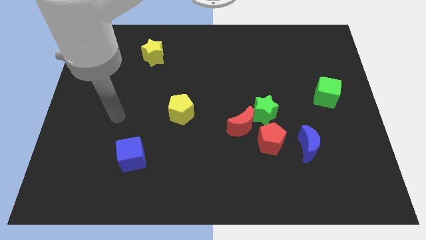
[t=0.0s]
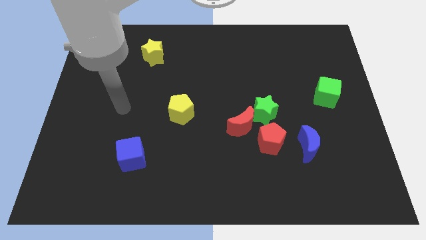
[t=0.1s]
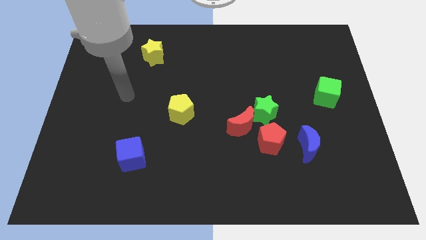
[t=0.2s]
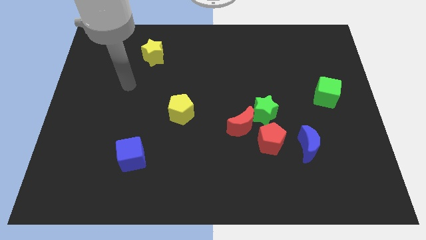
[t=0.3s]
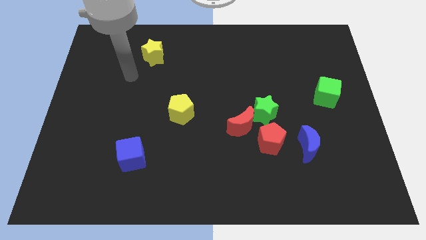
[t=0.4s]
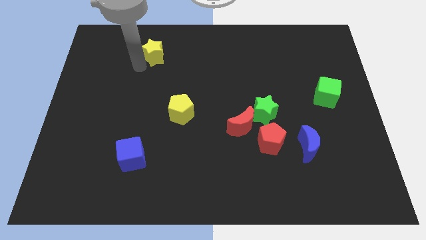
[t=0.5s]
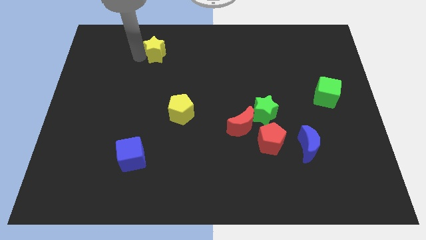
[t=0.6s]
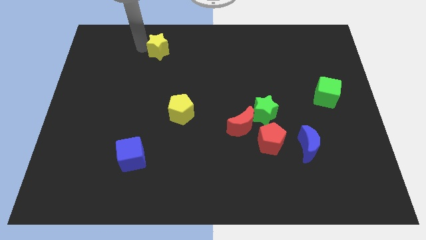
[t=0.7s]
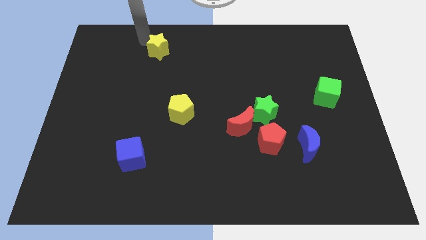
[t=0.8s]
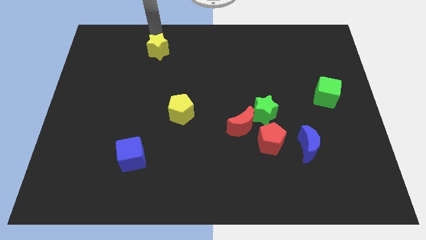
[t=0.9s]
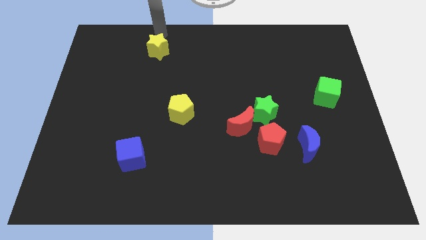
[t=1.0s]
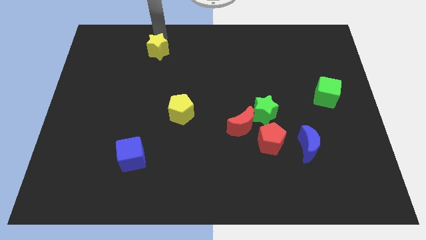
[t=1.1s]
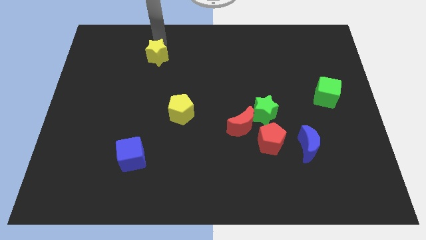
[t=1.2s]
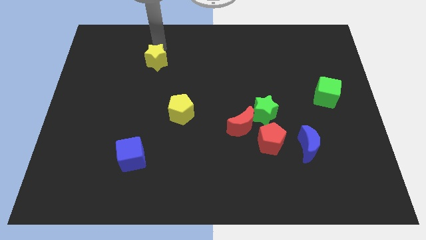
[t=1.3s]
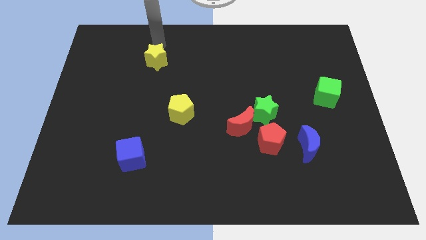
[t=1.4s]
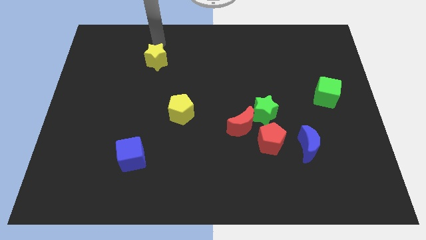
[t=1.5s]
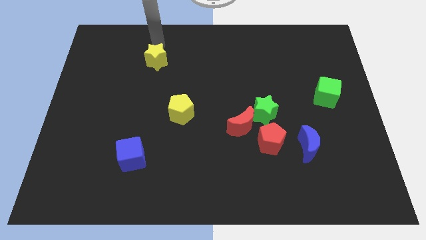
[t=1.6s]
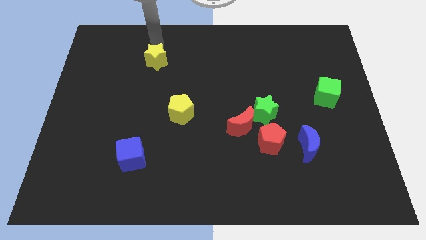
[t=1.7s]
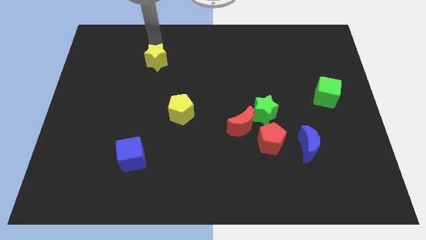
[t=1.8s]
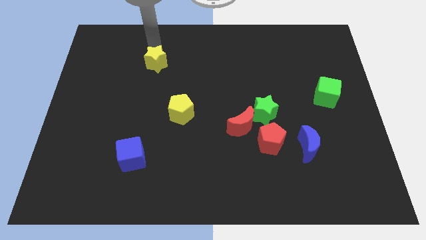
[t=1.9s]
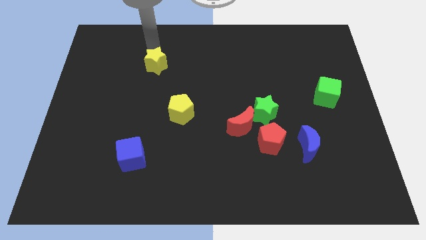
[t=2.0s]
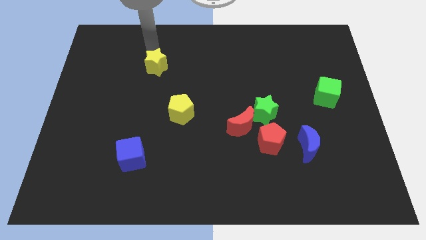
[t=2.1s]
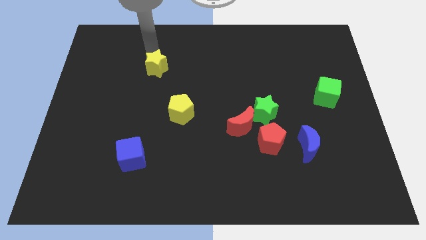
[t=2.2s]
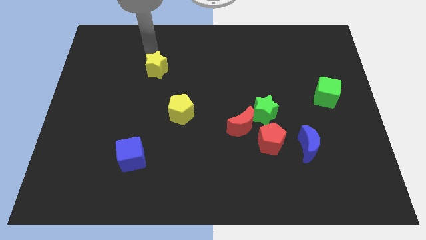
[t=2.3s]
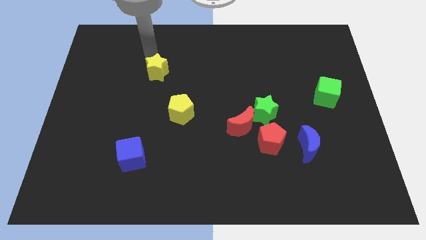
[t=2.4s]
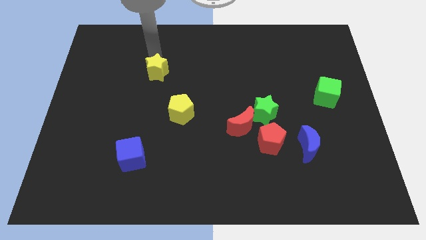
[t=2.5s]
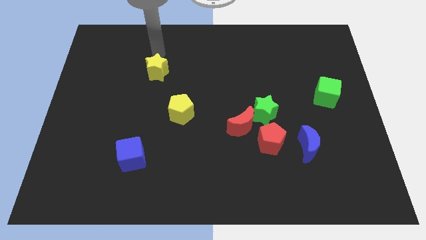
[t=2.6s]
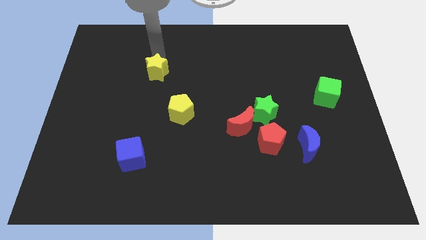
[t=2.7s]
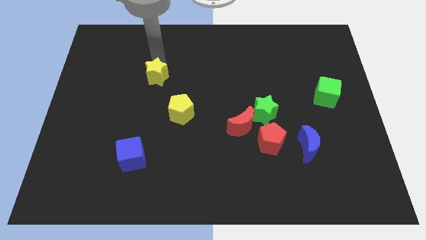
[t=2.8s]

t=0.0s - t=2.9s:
slide the yellow star slightly down

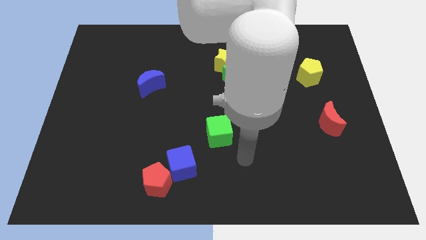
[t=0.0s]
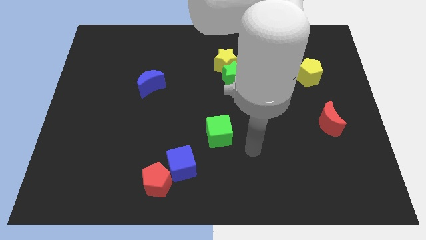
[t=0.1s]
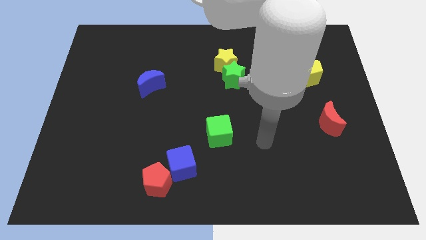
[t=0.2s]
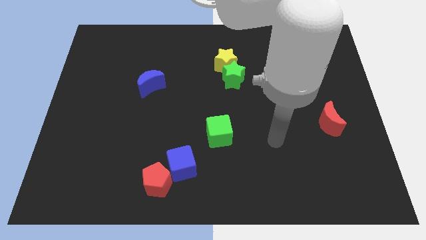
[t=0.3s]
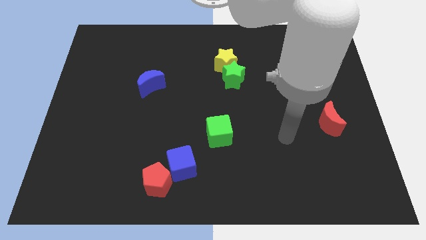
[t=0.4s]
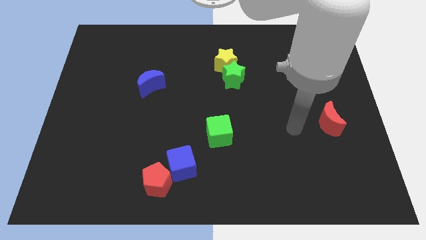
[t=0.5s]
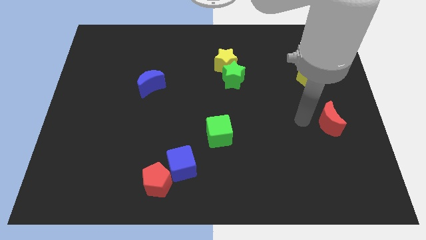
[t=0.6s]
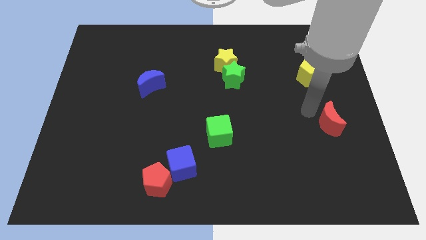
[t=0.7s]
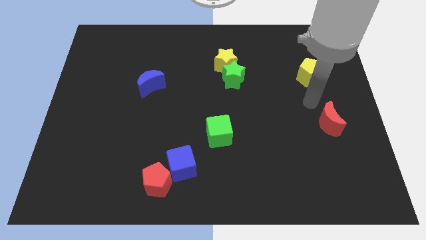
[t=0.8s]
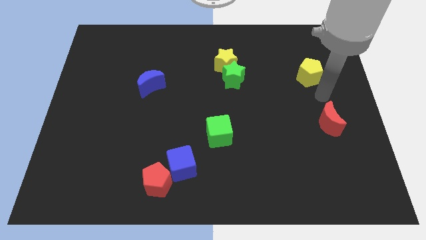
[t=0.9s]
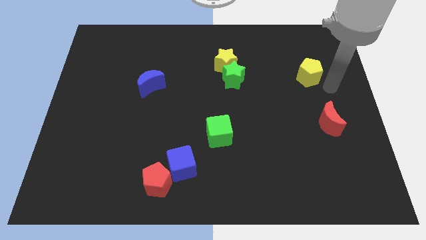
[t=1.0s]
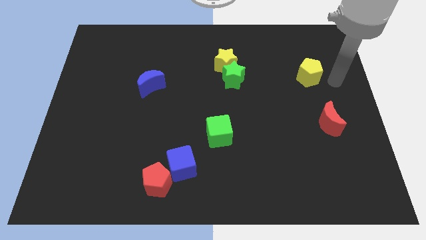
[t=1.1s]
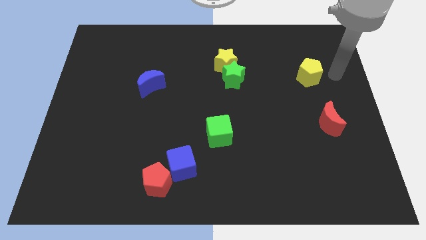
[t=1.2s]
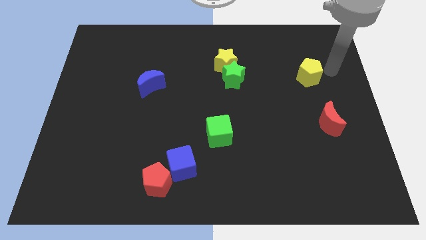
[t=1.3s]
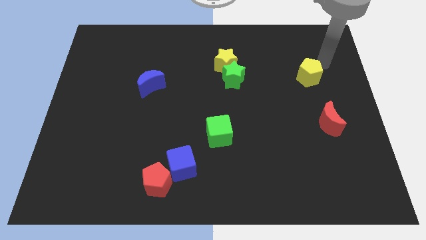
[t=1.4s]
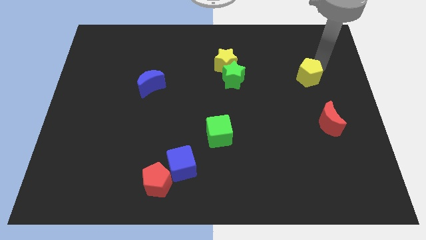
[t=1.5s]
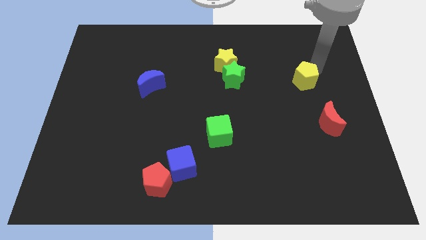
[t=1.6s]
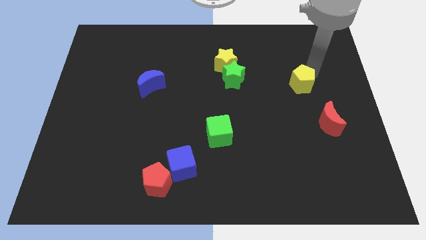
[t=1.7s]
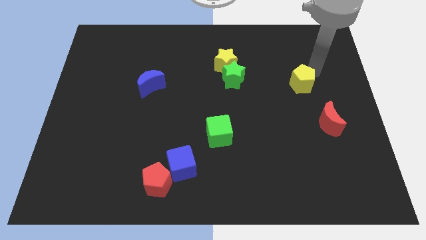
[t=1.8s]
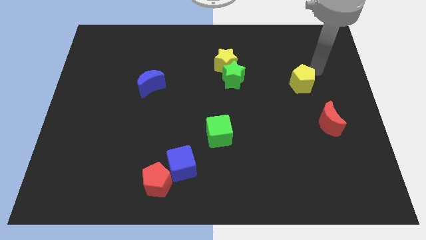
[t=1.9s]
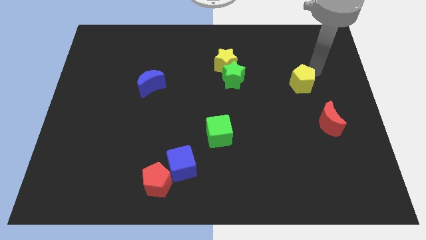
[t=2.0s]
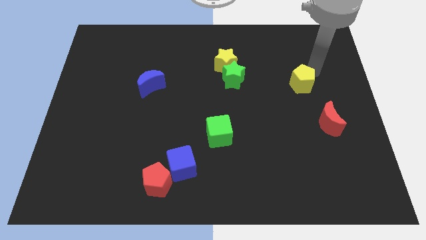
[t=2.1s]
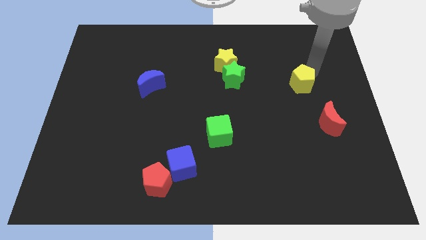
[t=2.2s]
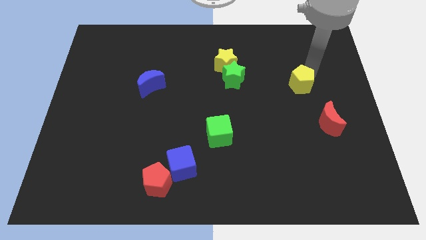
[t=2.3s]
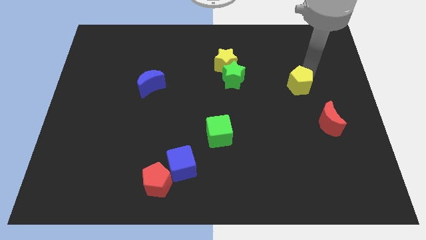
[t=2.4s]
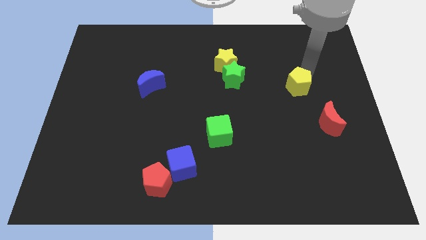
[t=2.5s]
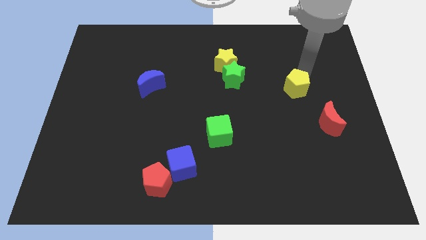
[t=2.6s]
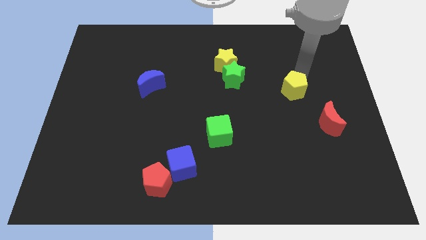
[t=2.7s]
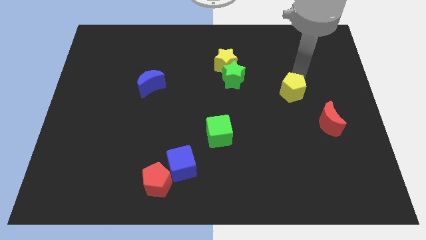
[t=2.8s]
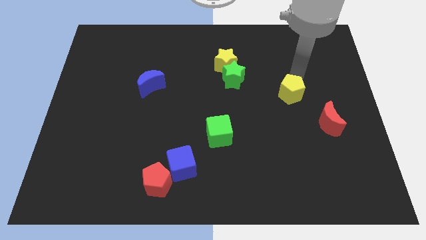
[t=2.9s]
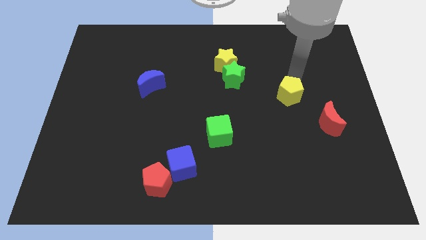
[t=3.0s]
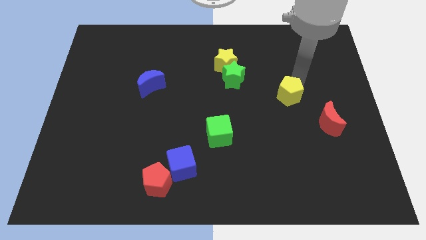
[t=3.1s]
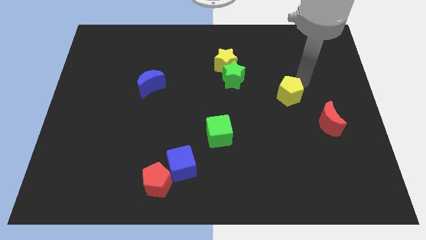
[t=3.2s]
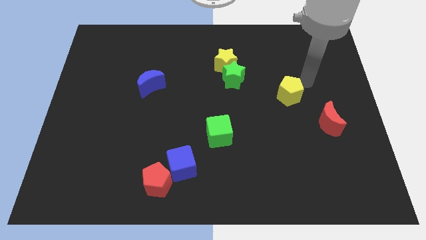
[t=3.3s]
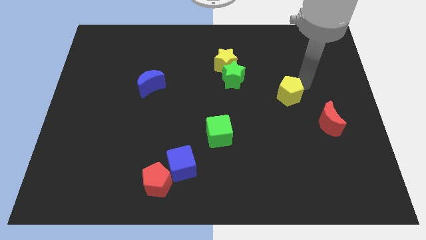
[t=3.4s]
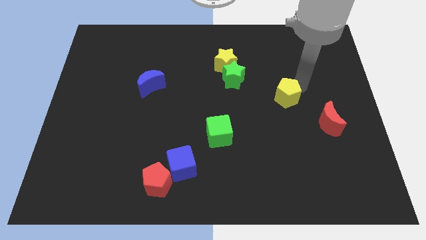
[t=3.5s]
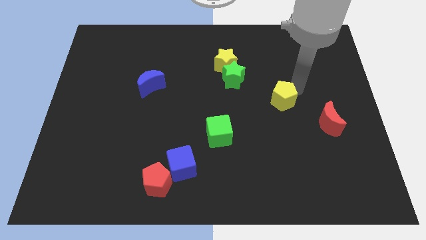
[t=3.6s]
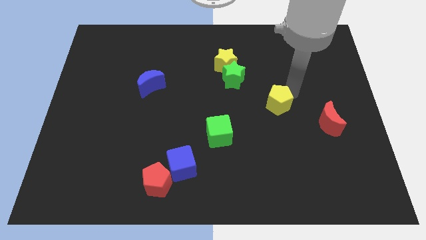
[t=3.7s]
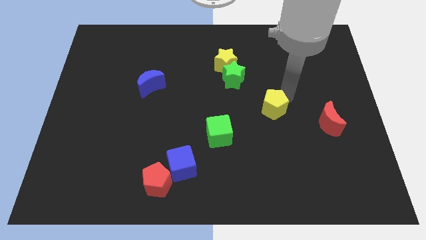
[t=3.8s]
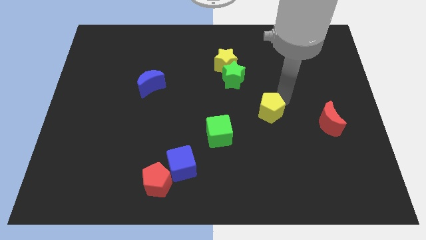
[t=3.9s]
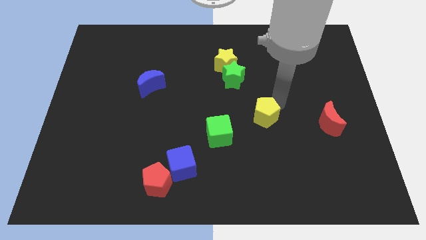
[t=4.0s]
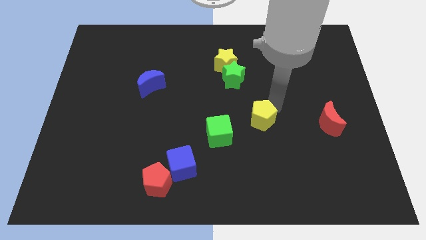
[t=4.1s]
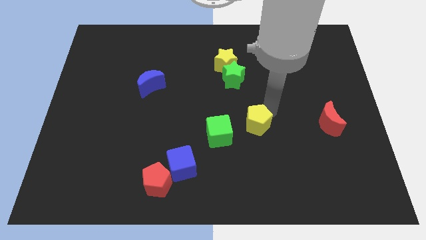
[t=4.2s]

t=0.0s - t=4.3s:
slide the yellow pentagon downwards and to the left diagonally

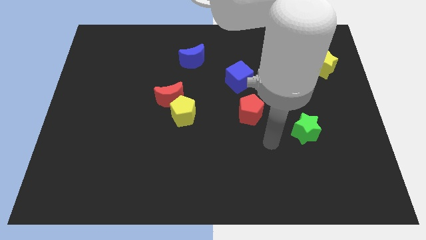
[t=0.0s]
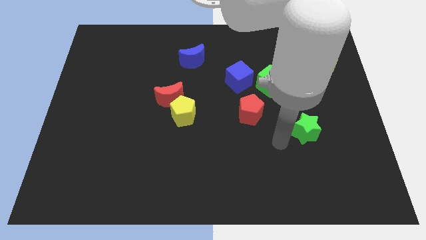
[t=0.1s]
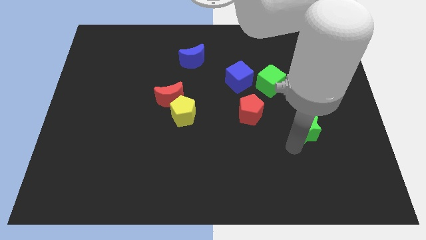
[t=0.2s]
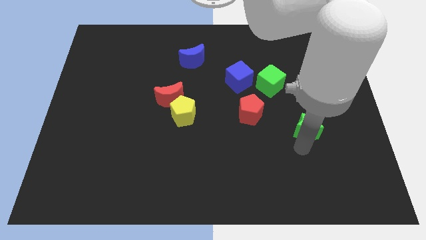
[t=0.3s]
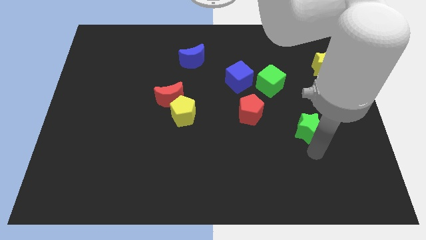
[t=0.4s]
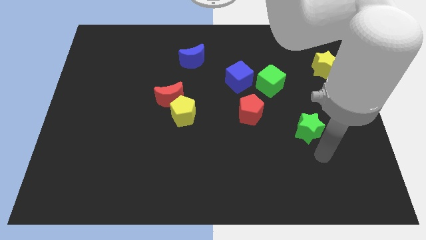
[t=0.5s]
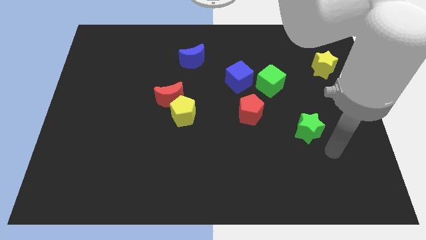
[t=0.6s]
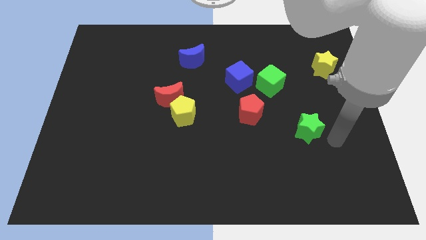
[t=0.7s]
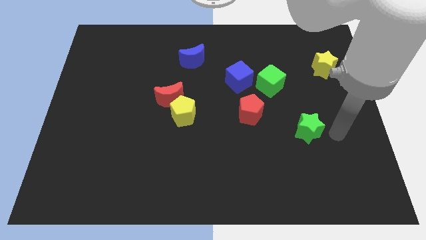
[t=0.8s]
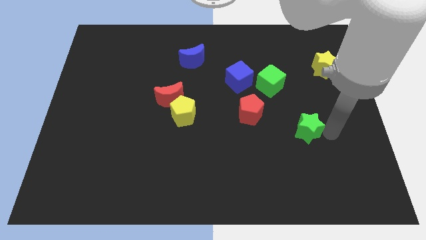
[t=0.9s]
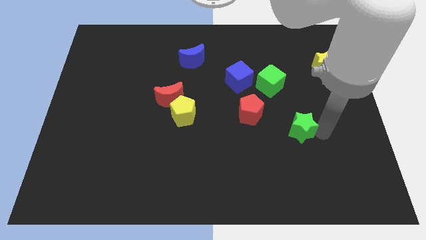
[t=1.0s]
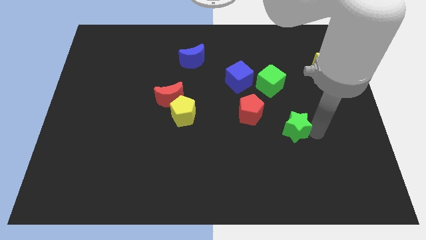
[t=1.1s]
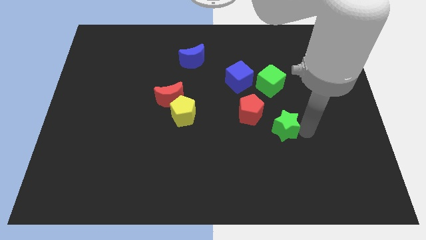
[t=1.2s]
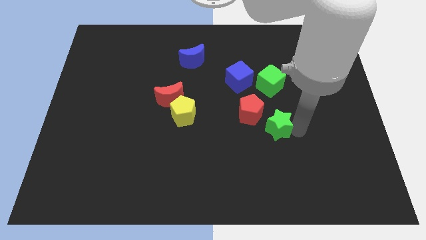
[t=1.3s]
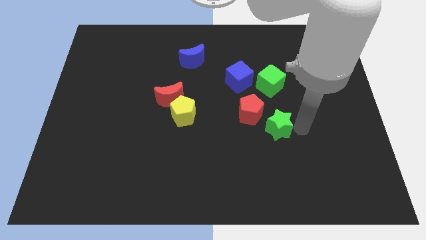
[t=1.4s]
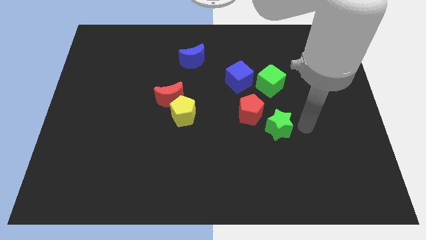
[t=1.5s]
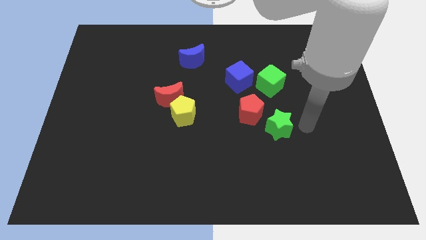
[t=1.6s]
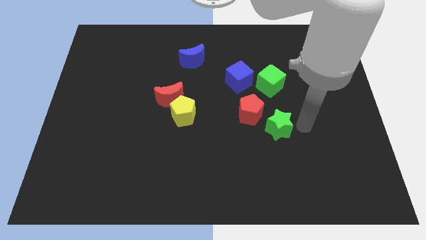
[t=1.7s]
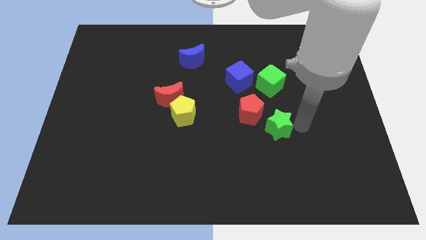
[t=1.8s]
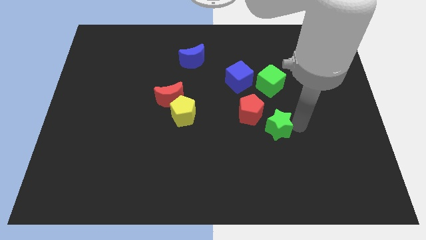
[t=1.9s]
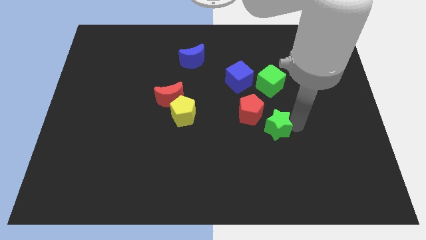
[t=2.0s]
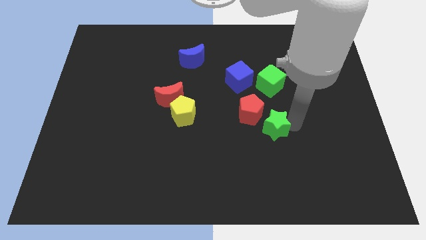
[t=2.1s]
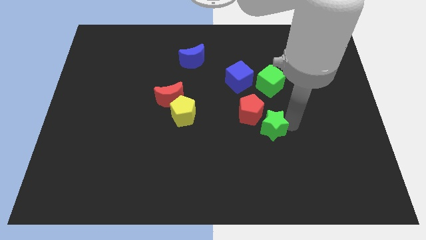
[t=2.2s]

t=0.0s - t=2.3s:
slide the green star left a little
